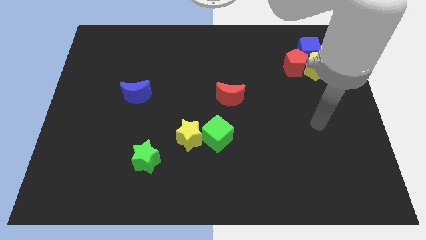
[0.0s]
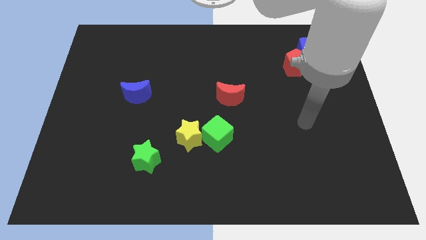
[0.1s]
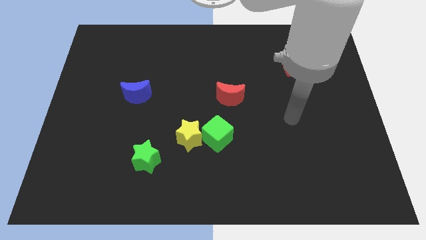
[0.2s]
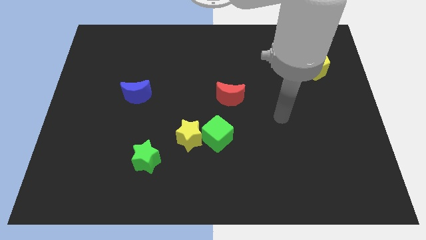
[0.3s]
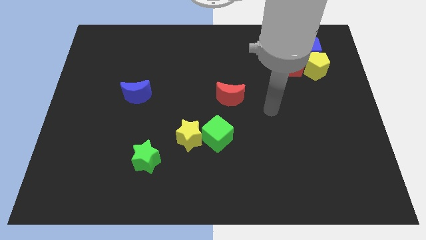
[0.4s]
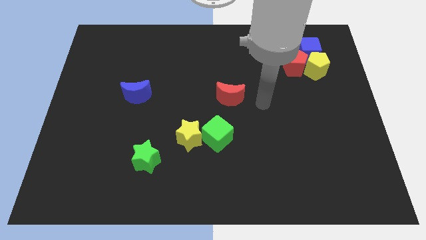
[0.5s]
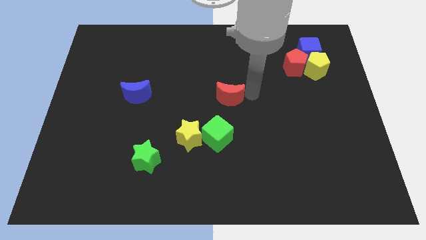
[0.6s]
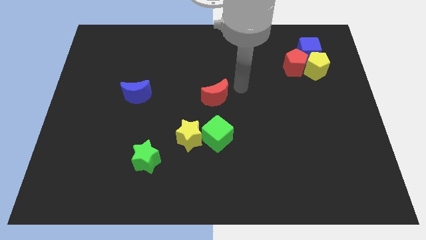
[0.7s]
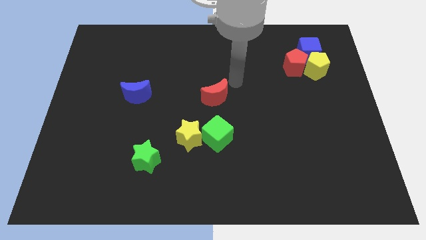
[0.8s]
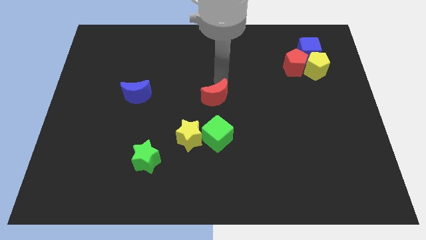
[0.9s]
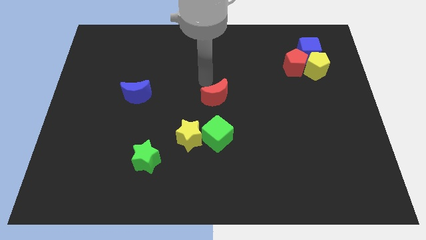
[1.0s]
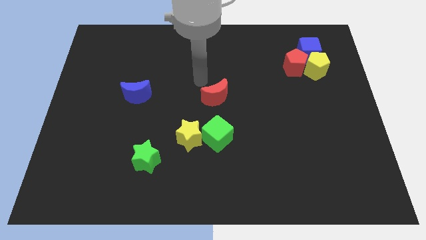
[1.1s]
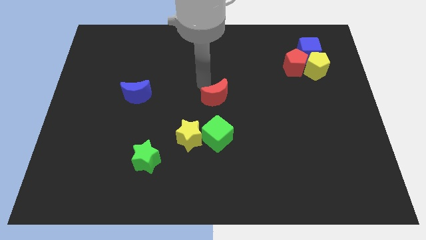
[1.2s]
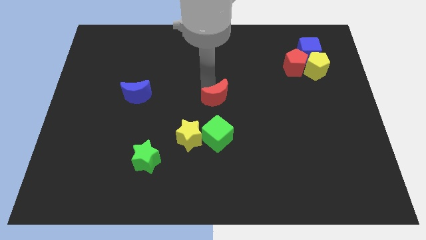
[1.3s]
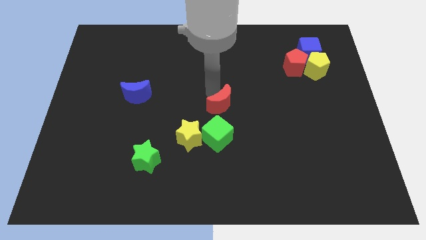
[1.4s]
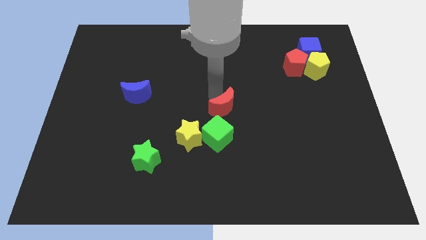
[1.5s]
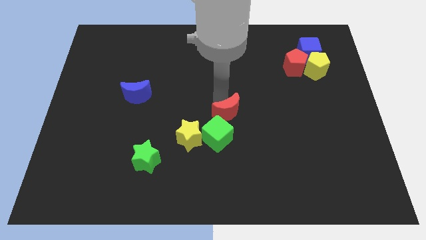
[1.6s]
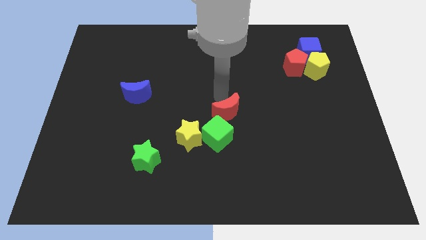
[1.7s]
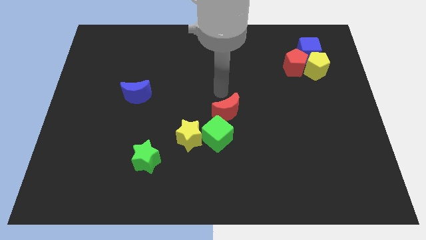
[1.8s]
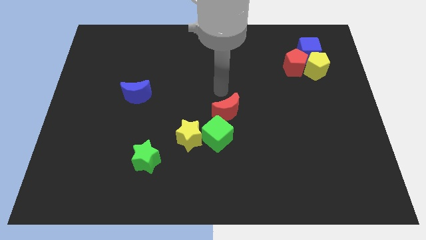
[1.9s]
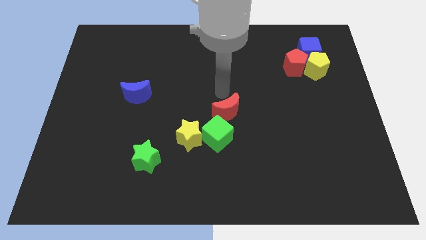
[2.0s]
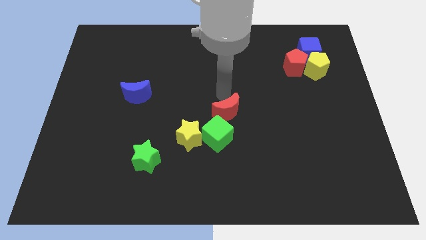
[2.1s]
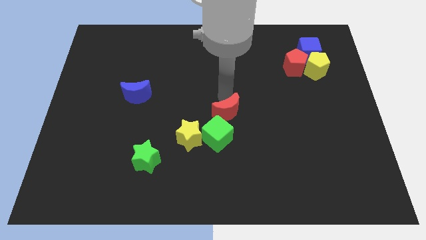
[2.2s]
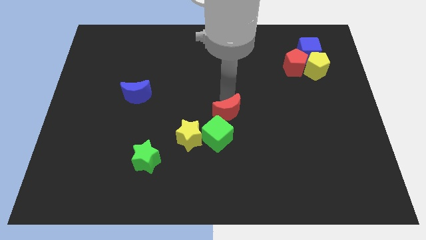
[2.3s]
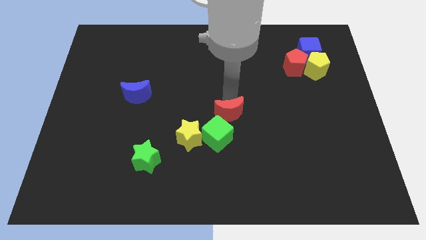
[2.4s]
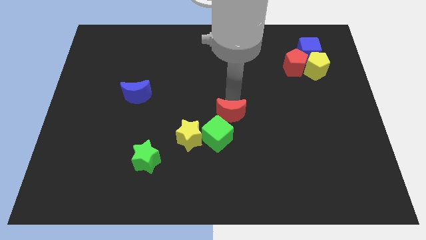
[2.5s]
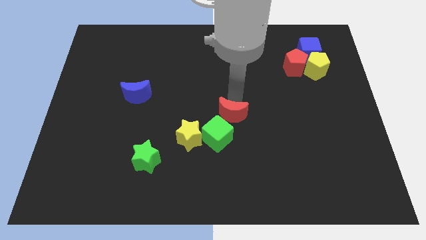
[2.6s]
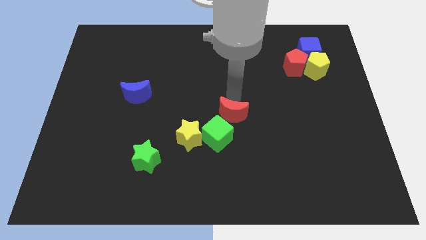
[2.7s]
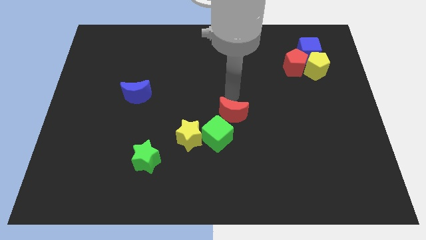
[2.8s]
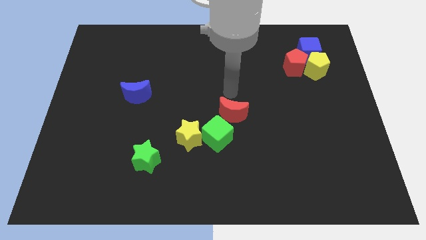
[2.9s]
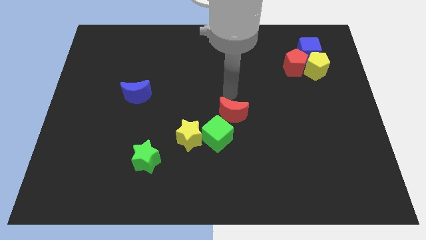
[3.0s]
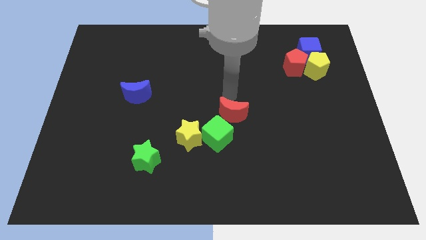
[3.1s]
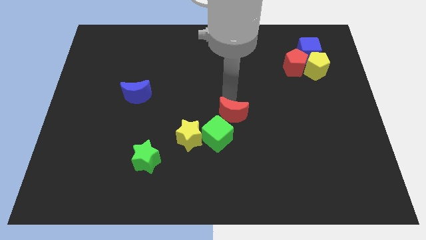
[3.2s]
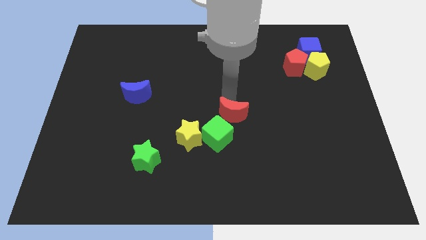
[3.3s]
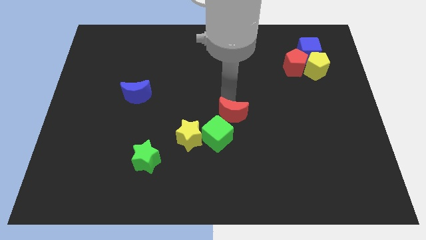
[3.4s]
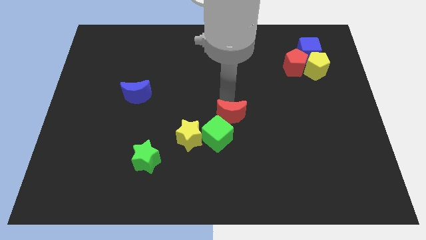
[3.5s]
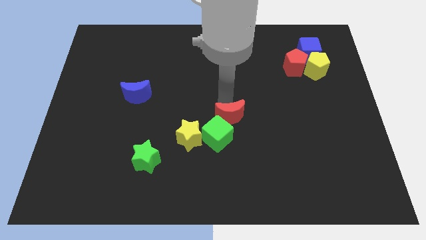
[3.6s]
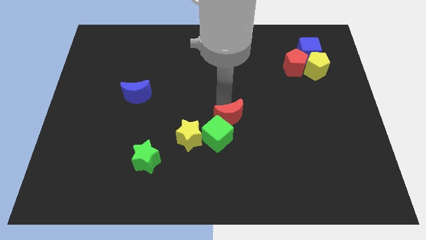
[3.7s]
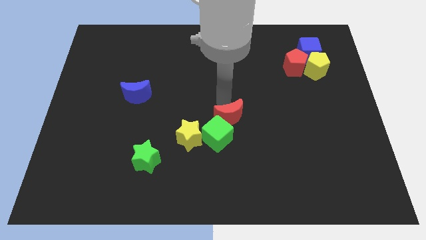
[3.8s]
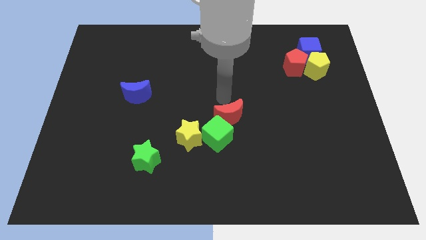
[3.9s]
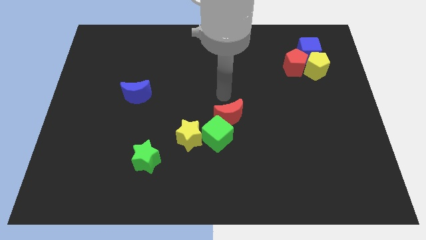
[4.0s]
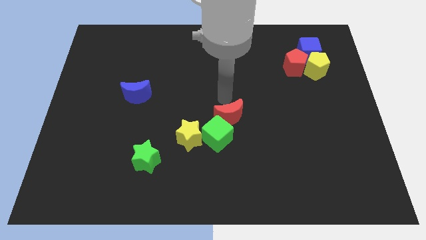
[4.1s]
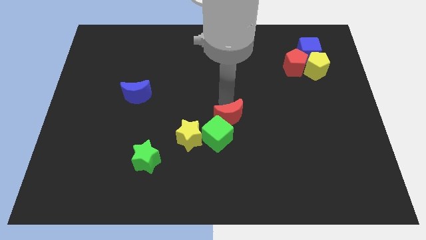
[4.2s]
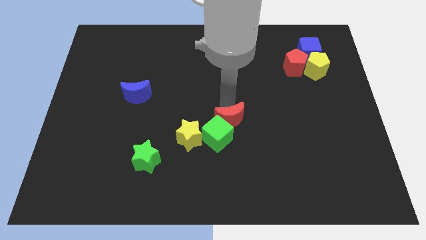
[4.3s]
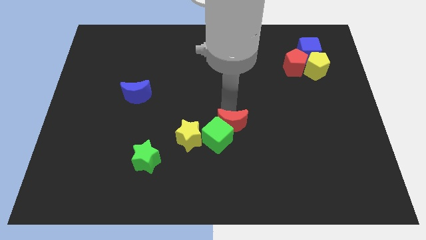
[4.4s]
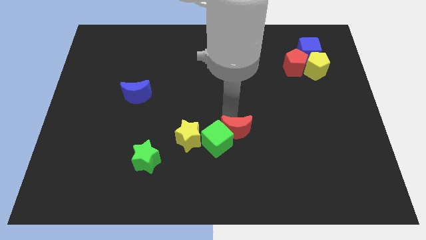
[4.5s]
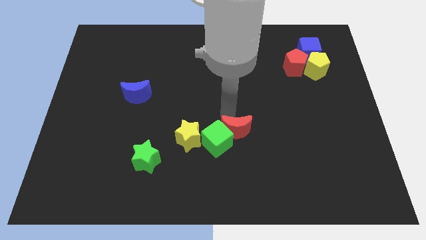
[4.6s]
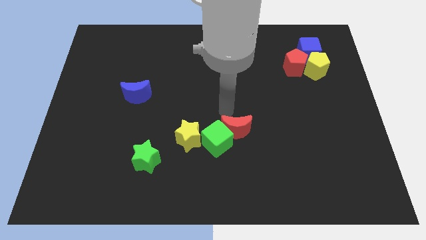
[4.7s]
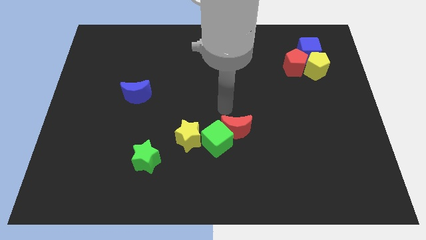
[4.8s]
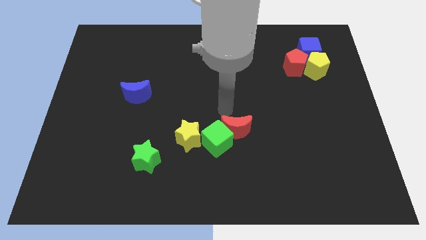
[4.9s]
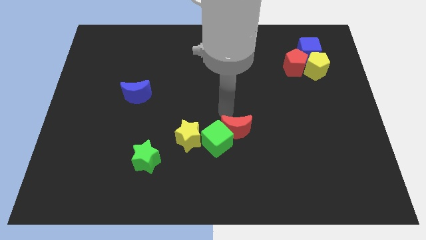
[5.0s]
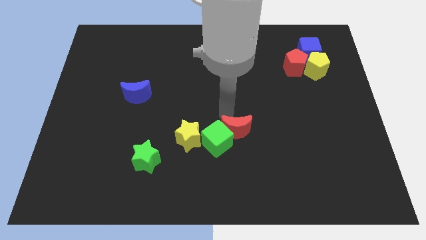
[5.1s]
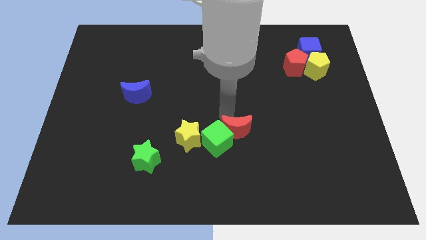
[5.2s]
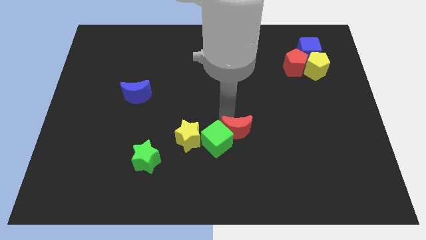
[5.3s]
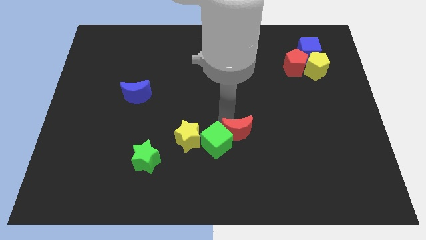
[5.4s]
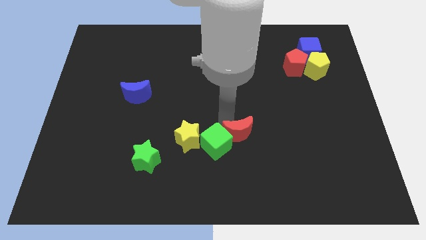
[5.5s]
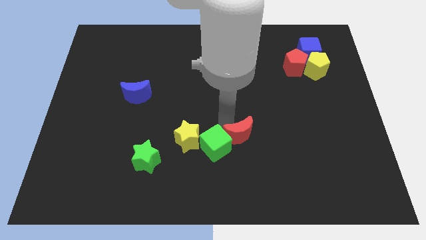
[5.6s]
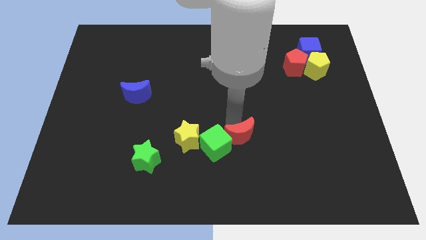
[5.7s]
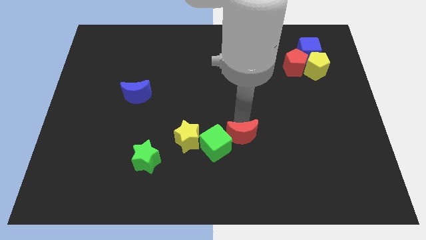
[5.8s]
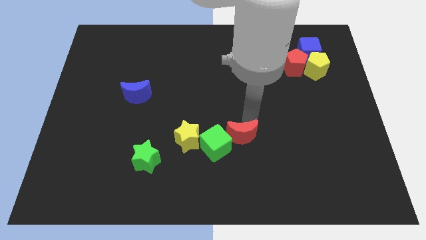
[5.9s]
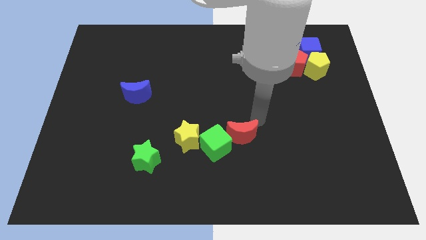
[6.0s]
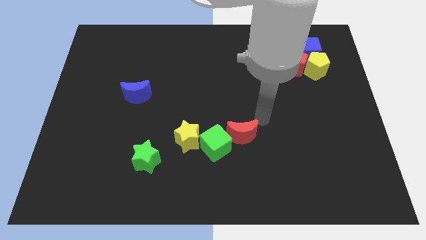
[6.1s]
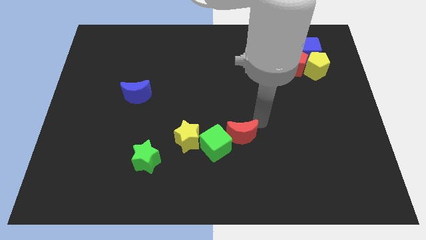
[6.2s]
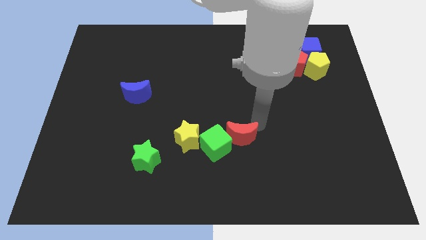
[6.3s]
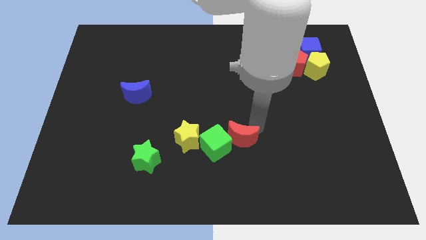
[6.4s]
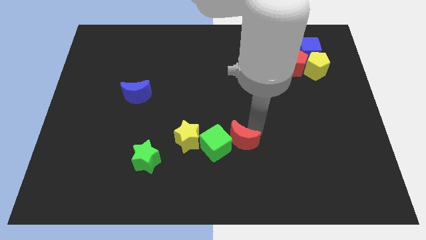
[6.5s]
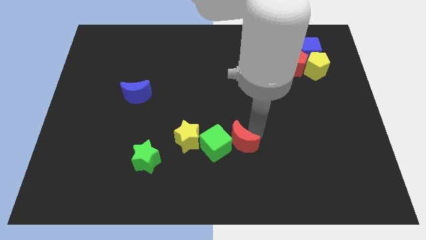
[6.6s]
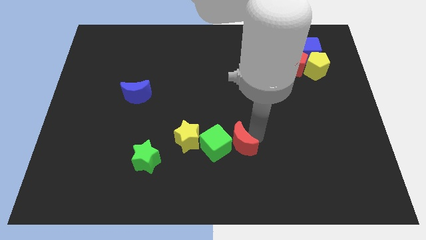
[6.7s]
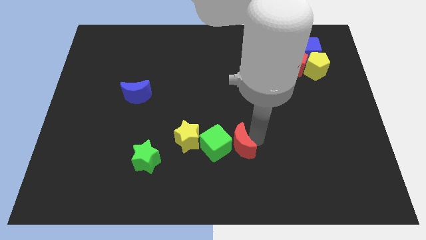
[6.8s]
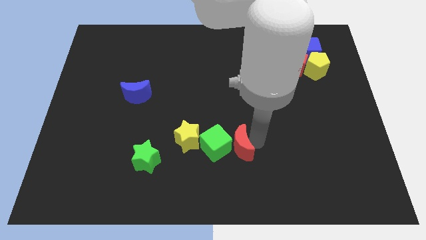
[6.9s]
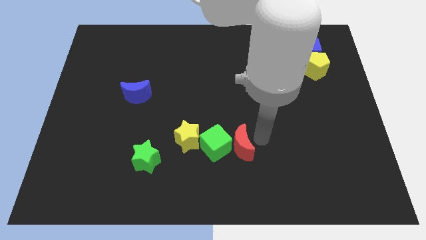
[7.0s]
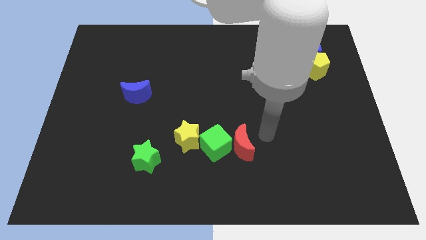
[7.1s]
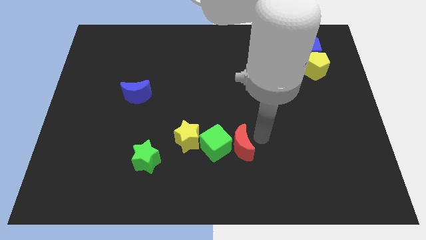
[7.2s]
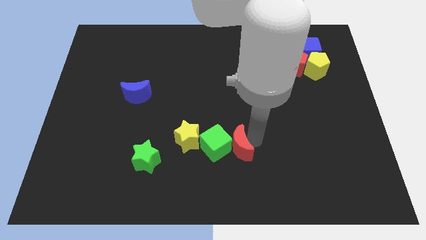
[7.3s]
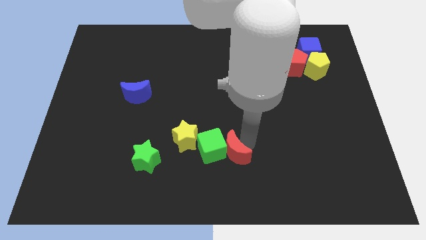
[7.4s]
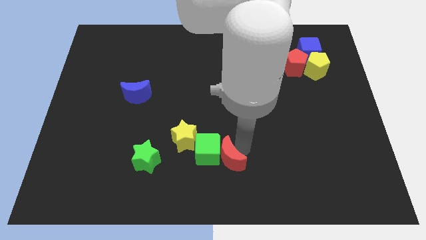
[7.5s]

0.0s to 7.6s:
push the red moon to the bottom right side of the yellow star
